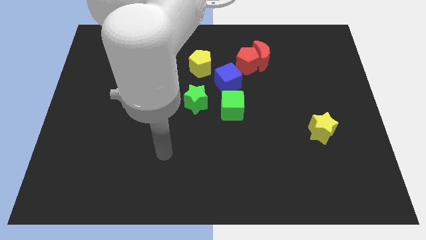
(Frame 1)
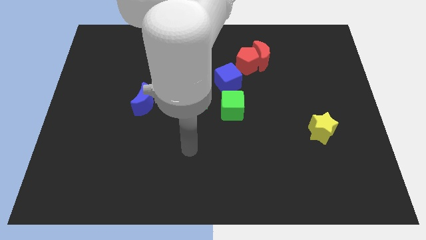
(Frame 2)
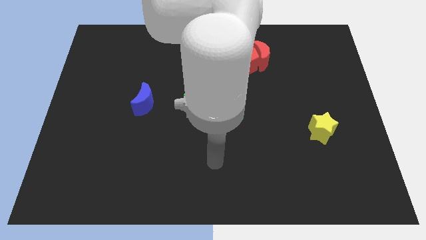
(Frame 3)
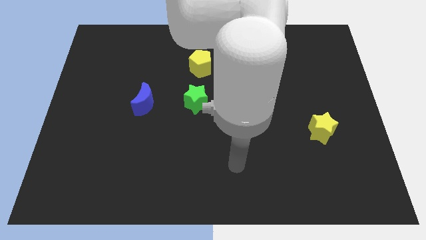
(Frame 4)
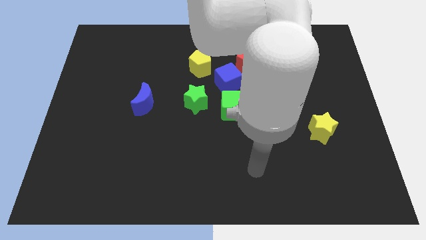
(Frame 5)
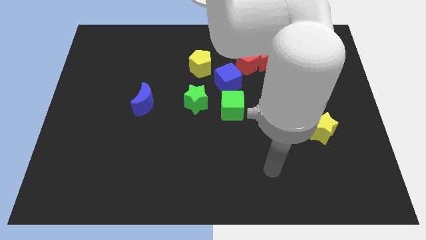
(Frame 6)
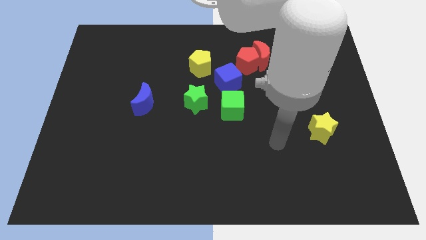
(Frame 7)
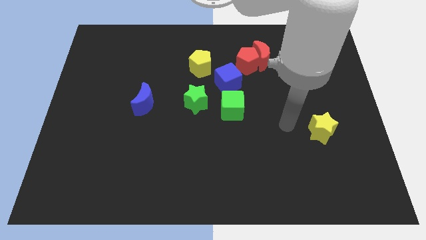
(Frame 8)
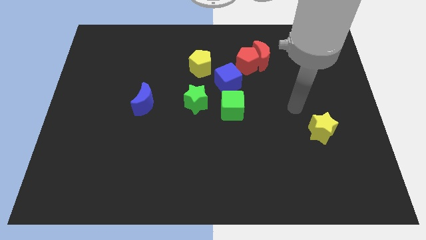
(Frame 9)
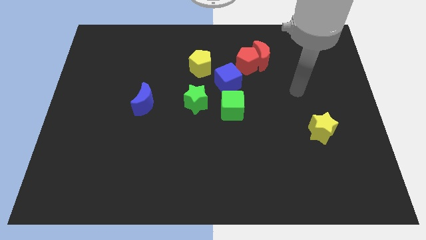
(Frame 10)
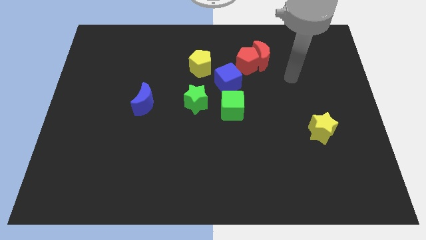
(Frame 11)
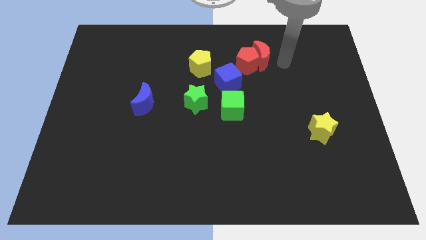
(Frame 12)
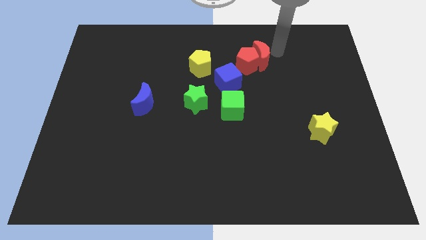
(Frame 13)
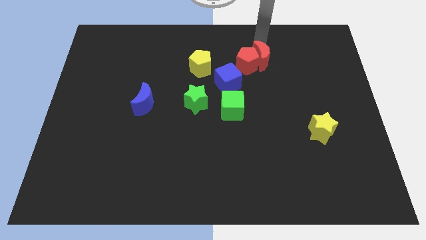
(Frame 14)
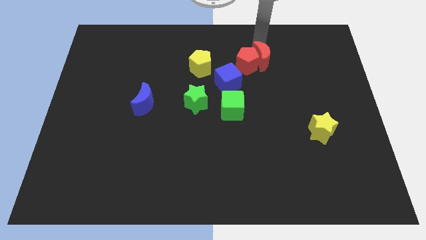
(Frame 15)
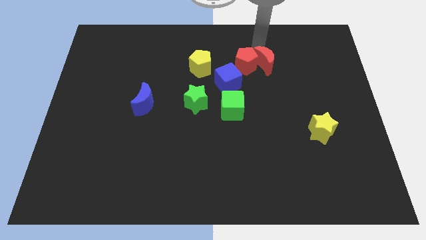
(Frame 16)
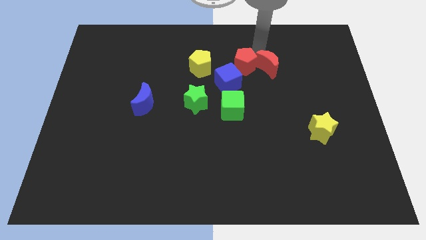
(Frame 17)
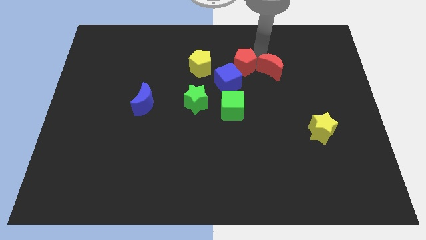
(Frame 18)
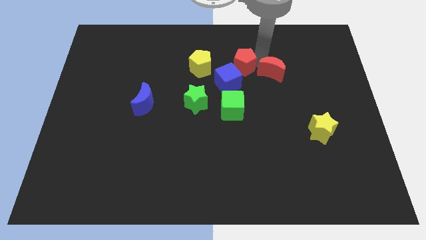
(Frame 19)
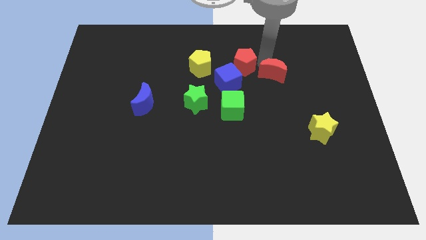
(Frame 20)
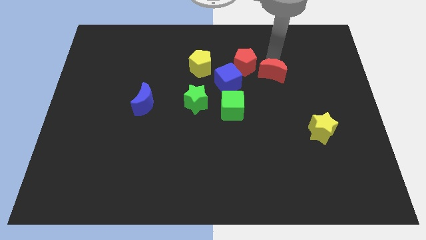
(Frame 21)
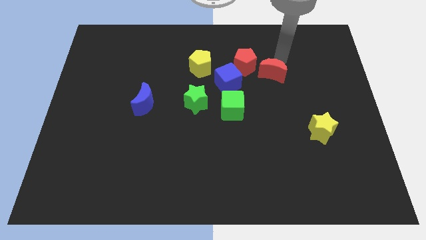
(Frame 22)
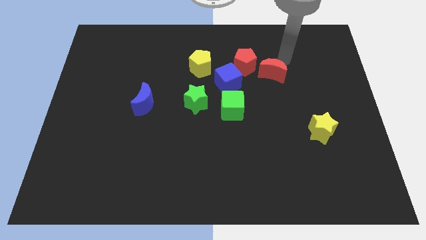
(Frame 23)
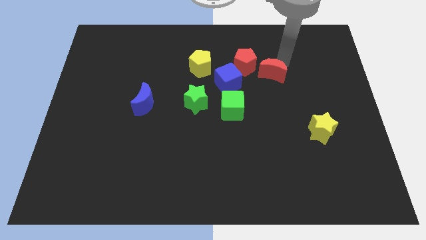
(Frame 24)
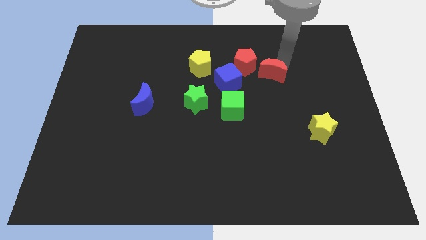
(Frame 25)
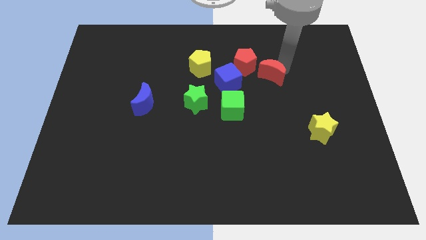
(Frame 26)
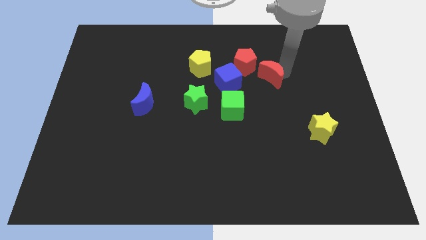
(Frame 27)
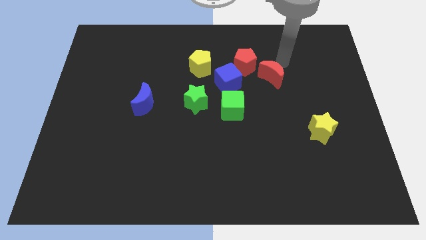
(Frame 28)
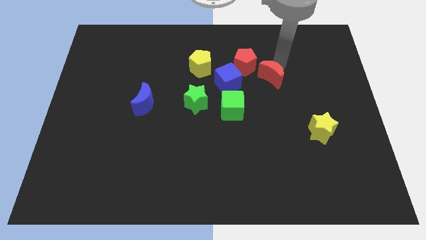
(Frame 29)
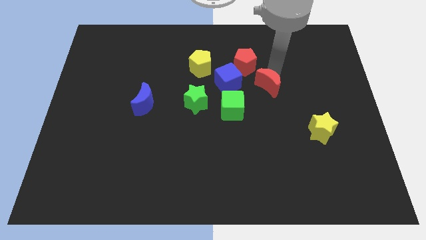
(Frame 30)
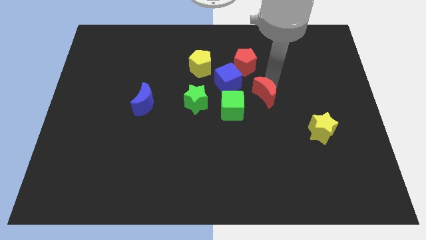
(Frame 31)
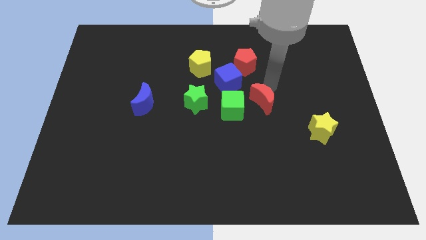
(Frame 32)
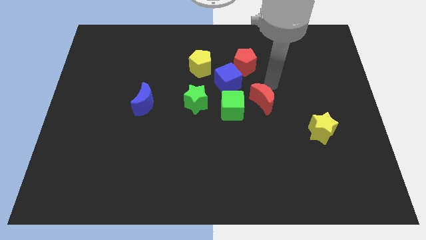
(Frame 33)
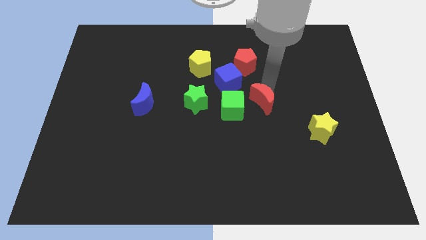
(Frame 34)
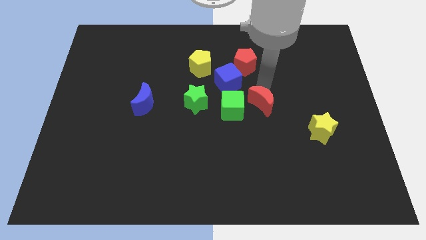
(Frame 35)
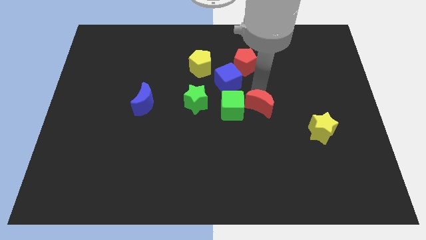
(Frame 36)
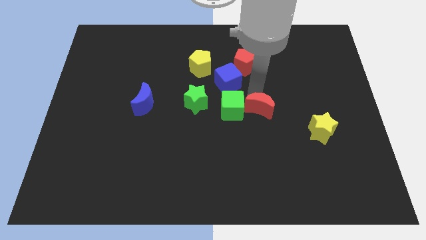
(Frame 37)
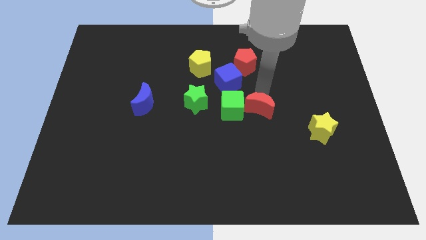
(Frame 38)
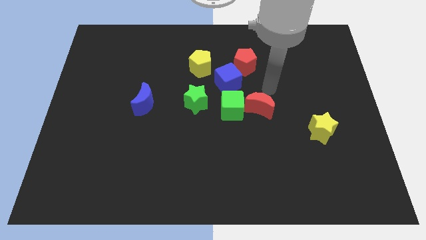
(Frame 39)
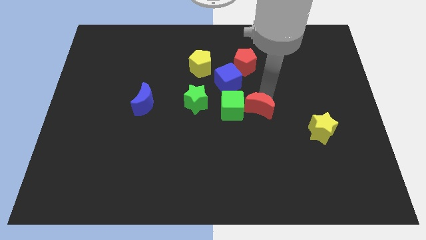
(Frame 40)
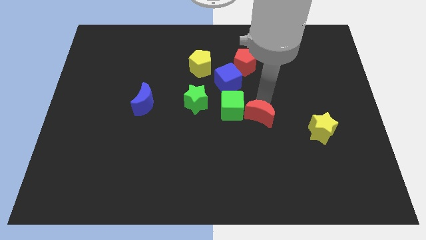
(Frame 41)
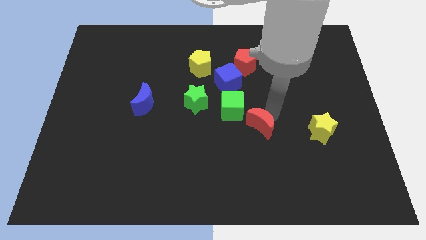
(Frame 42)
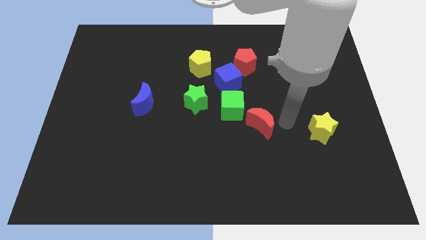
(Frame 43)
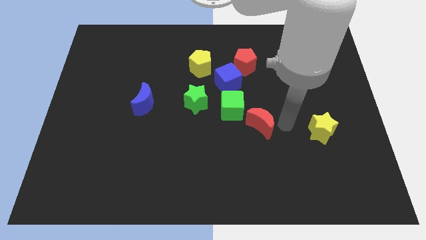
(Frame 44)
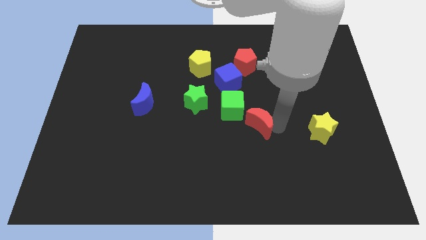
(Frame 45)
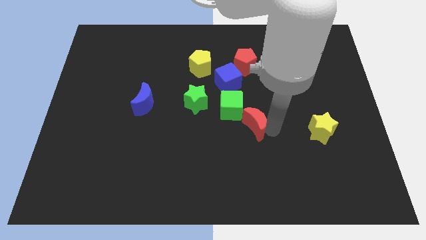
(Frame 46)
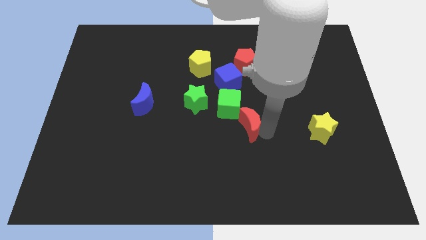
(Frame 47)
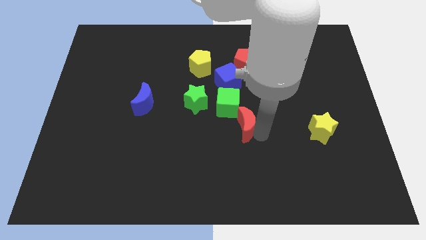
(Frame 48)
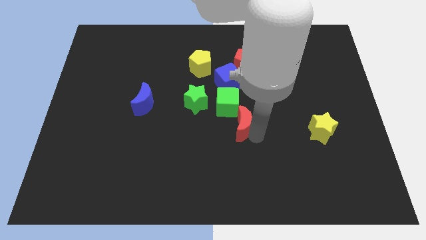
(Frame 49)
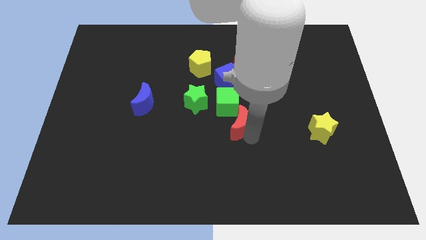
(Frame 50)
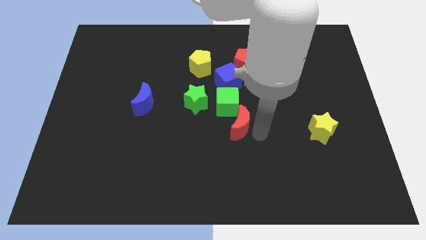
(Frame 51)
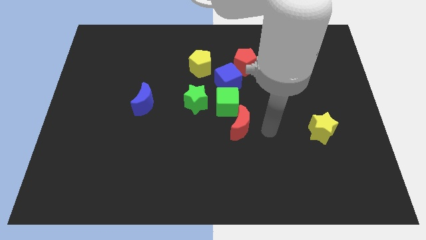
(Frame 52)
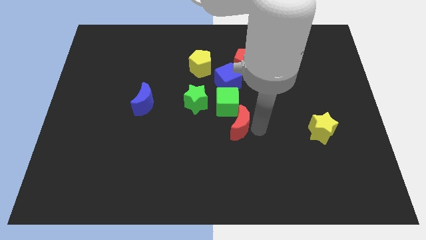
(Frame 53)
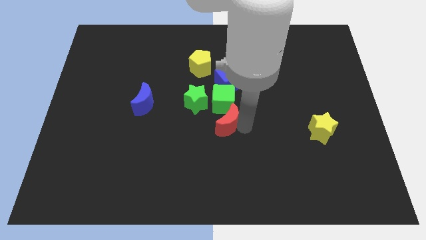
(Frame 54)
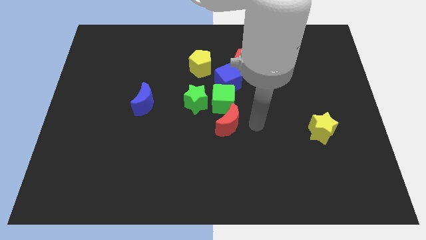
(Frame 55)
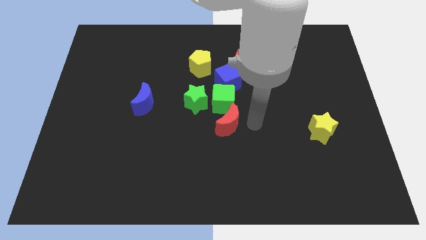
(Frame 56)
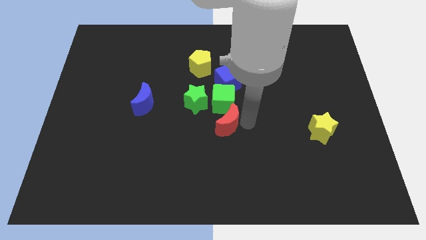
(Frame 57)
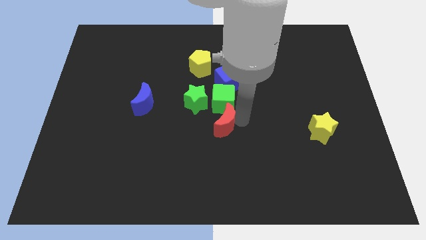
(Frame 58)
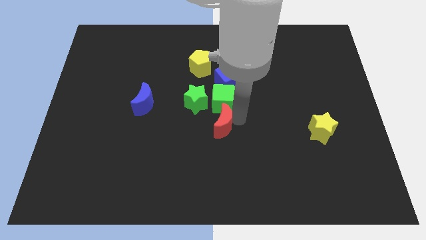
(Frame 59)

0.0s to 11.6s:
push the red moon down and then to the left

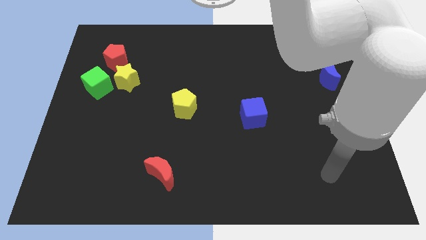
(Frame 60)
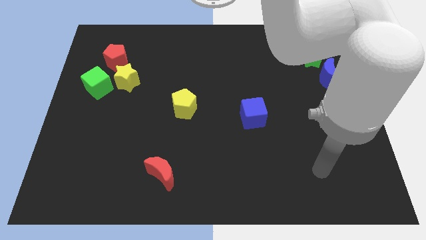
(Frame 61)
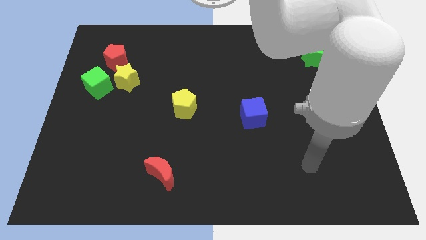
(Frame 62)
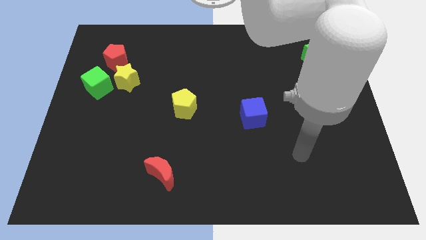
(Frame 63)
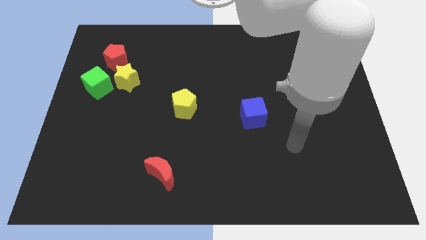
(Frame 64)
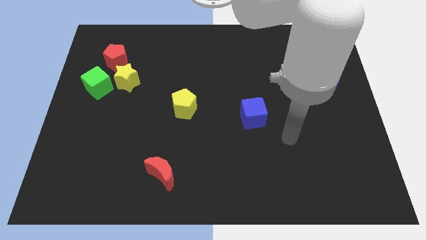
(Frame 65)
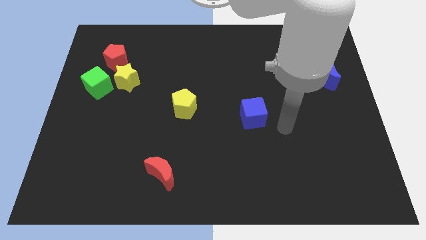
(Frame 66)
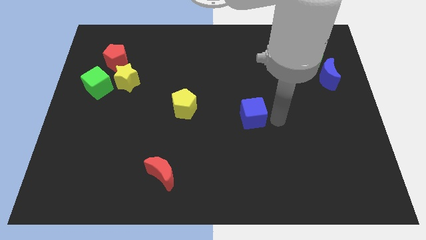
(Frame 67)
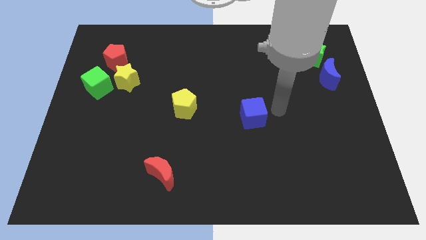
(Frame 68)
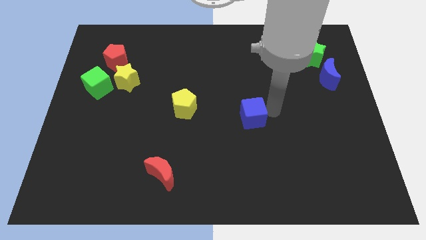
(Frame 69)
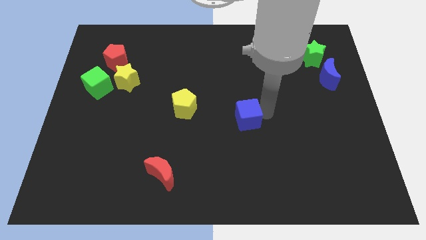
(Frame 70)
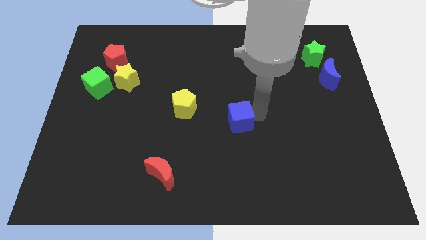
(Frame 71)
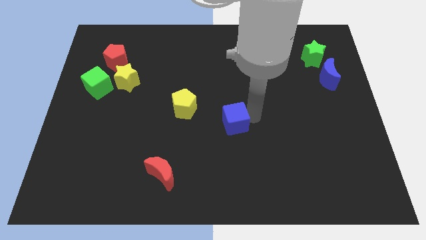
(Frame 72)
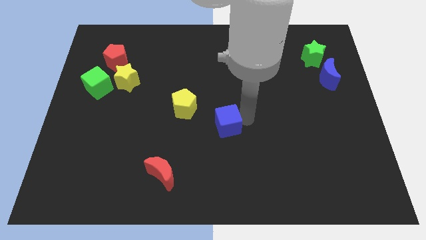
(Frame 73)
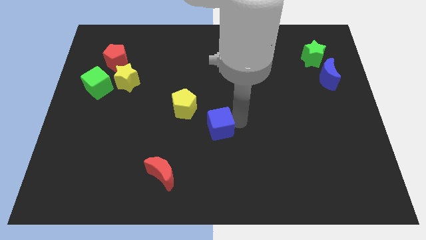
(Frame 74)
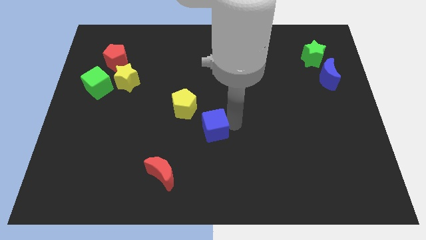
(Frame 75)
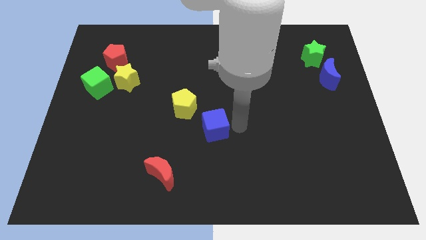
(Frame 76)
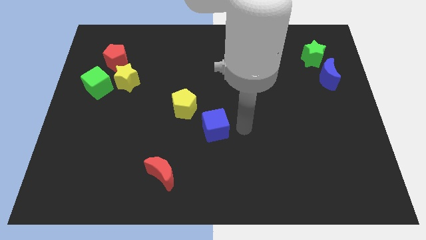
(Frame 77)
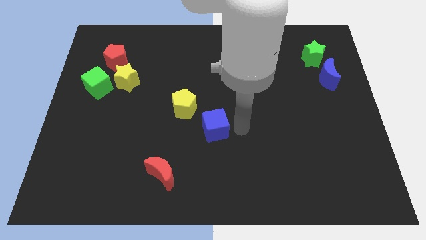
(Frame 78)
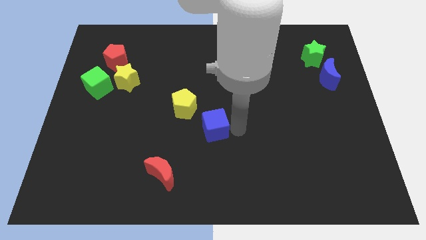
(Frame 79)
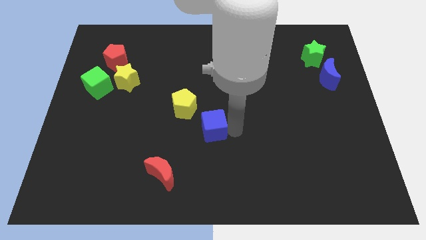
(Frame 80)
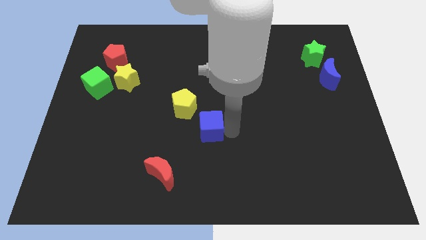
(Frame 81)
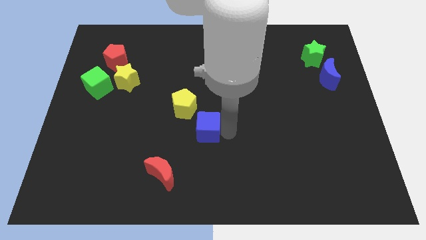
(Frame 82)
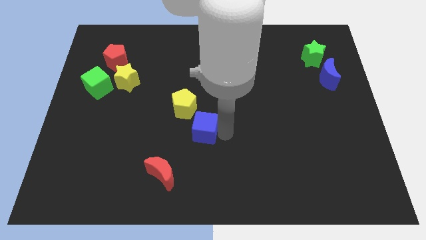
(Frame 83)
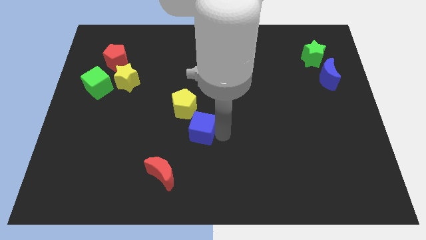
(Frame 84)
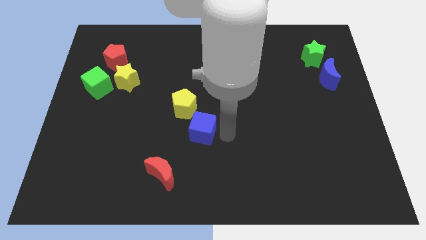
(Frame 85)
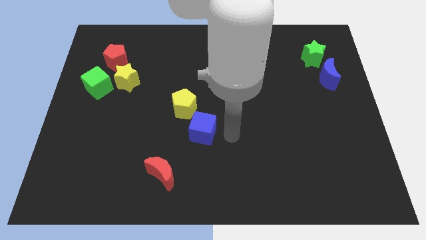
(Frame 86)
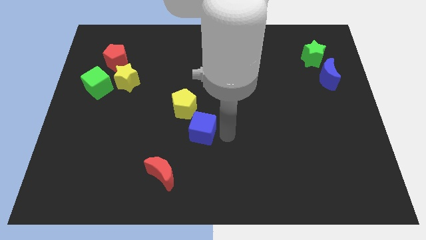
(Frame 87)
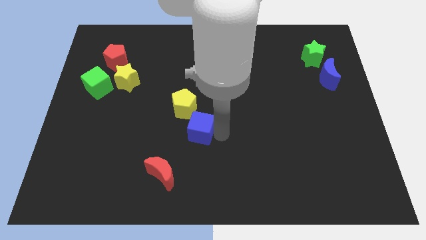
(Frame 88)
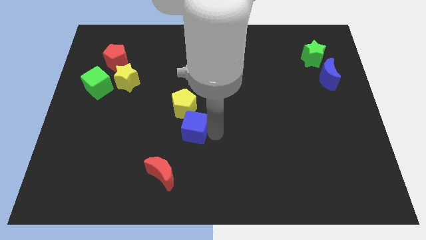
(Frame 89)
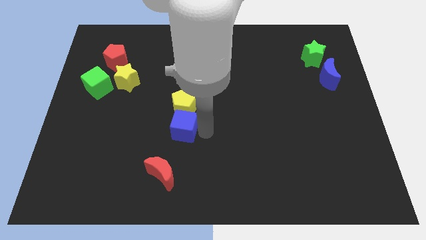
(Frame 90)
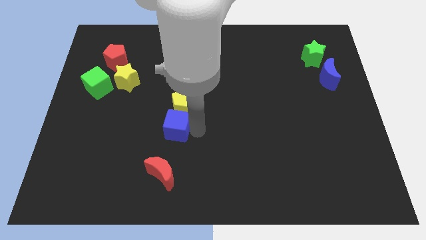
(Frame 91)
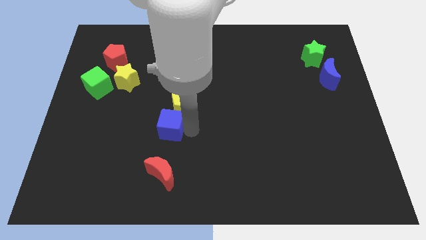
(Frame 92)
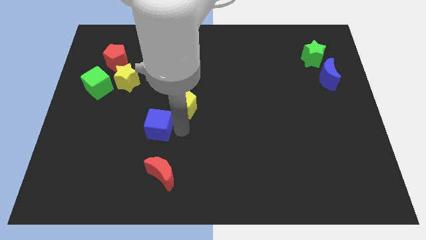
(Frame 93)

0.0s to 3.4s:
push the blue cube left
